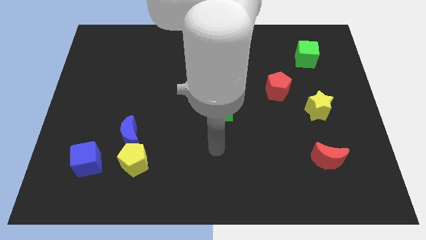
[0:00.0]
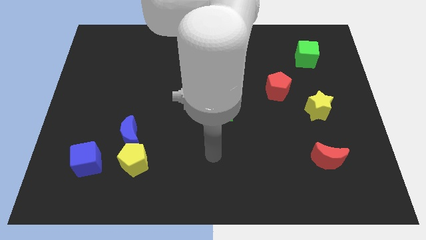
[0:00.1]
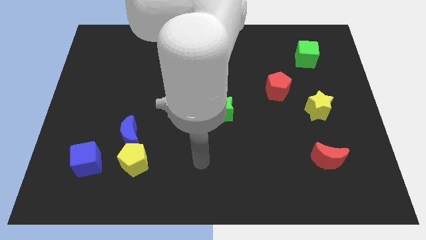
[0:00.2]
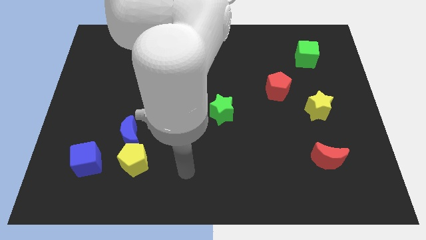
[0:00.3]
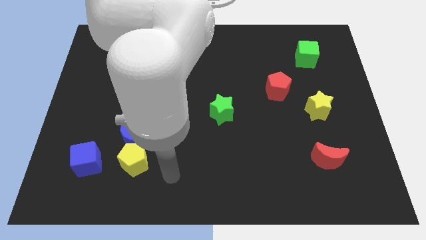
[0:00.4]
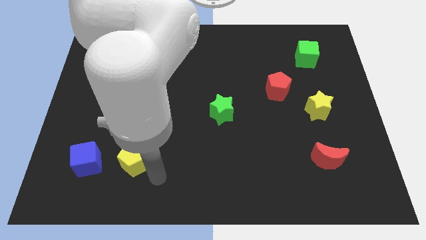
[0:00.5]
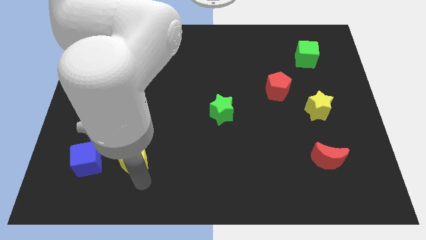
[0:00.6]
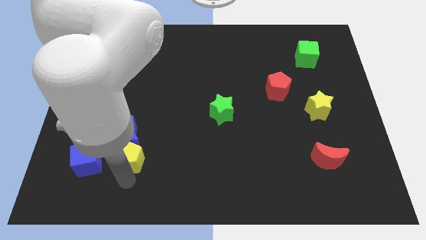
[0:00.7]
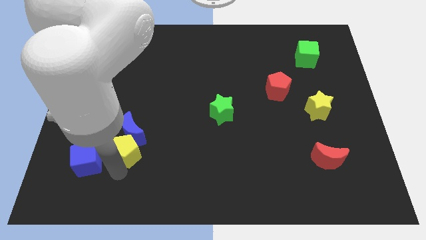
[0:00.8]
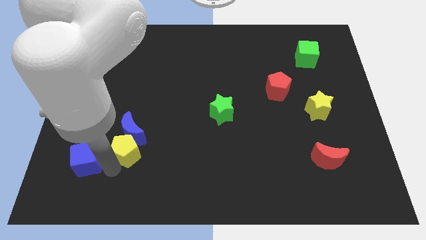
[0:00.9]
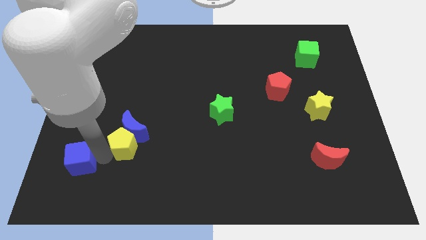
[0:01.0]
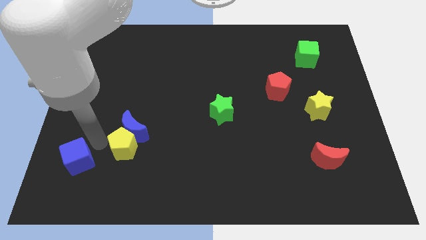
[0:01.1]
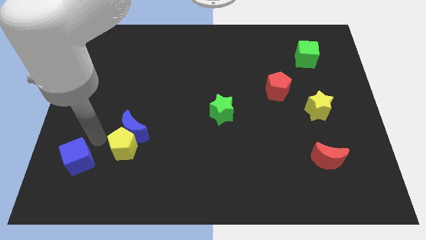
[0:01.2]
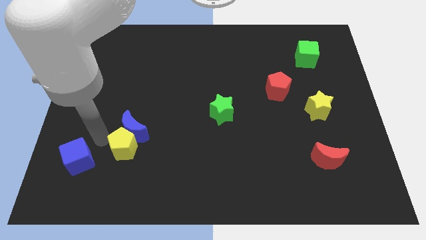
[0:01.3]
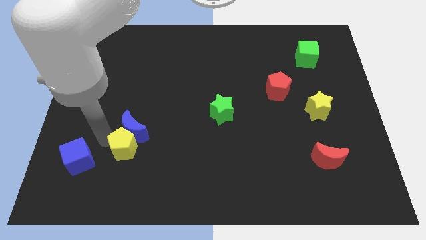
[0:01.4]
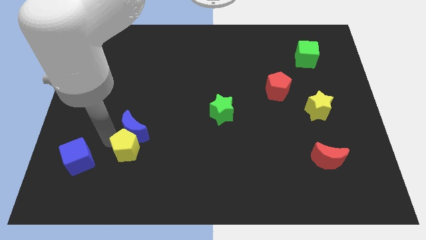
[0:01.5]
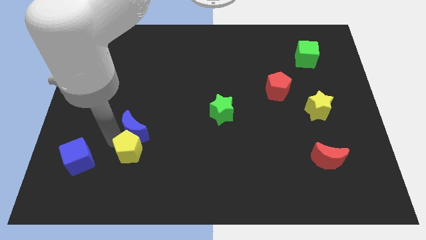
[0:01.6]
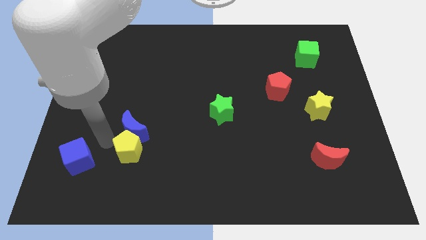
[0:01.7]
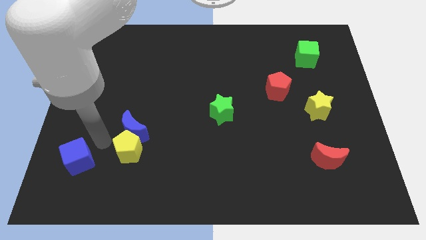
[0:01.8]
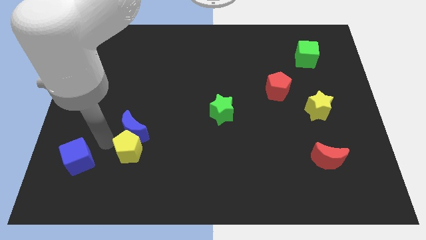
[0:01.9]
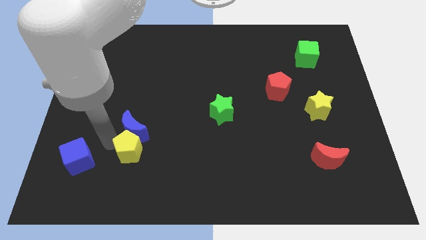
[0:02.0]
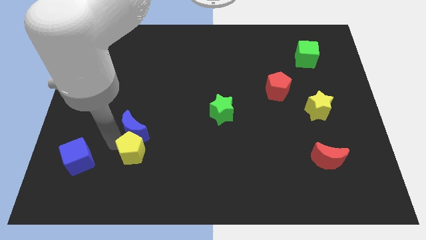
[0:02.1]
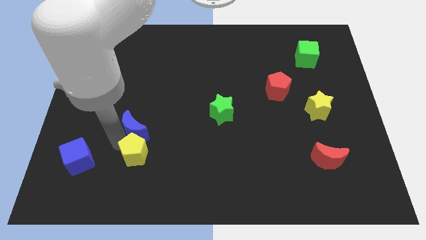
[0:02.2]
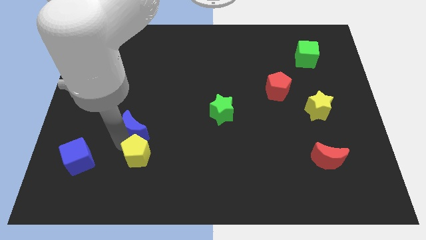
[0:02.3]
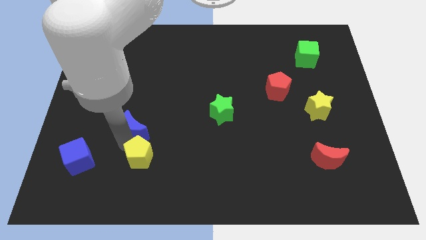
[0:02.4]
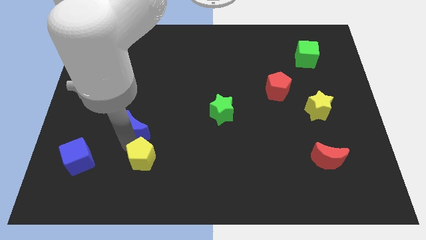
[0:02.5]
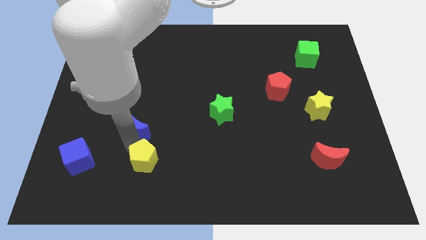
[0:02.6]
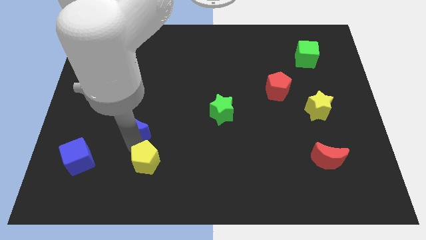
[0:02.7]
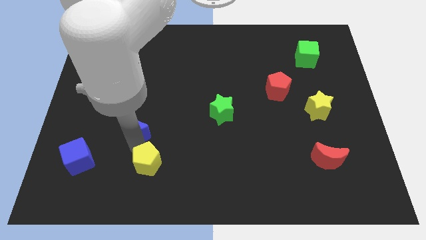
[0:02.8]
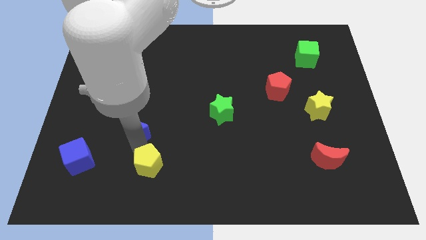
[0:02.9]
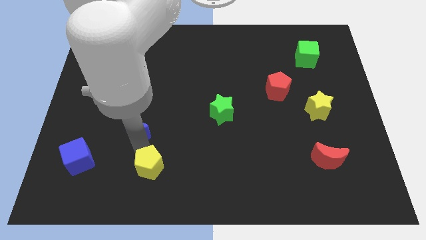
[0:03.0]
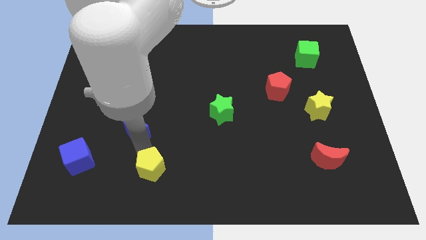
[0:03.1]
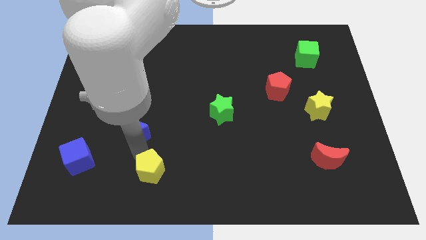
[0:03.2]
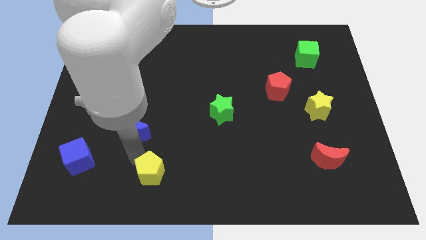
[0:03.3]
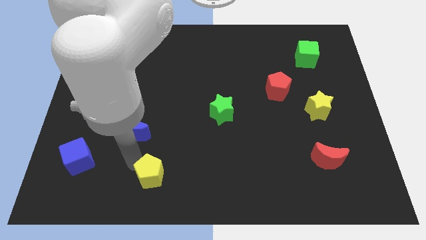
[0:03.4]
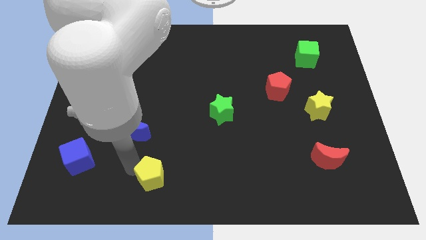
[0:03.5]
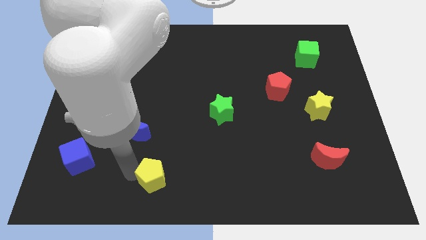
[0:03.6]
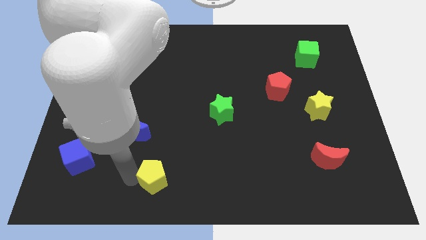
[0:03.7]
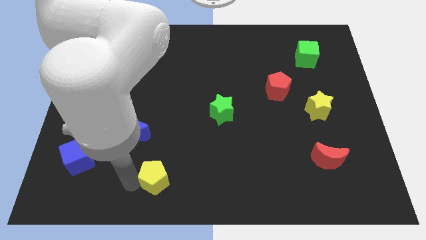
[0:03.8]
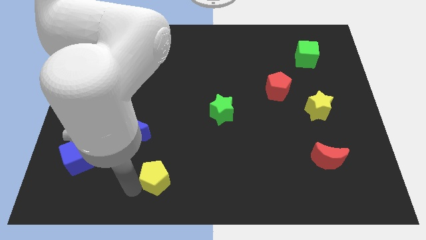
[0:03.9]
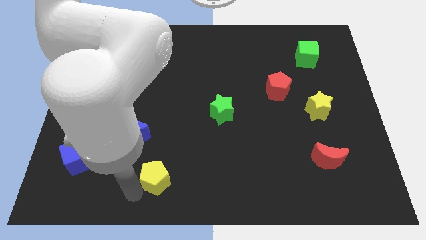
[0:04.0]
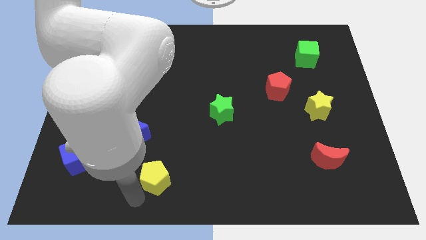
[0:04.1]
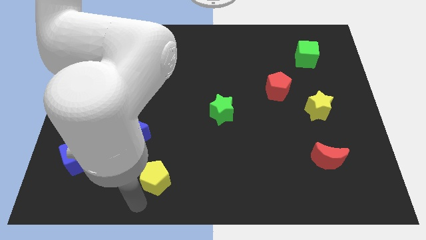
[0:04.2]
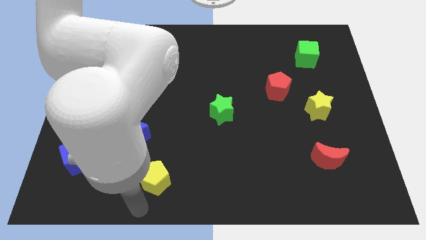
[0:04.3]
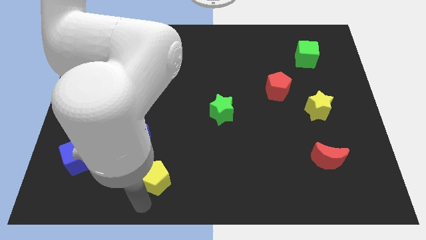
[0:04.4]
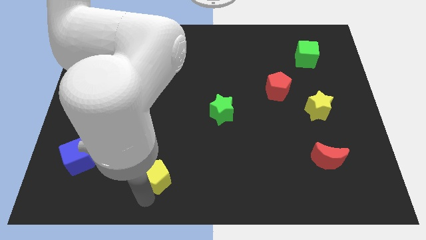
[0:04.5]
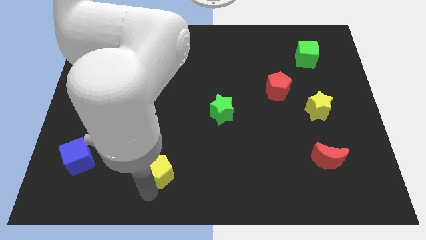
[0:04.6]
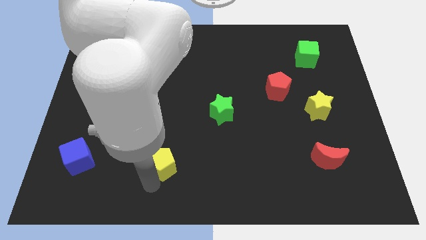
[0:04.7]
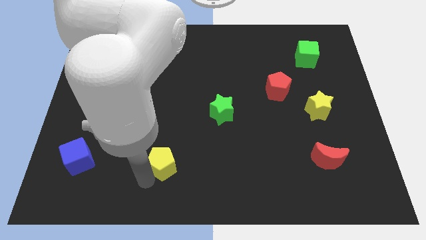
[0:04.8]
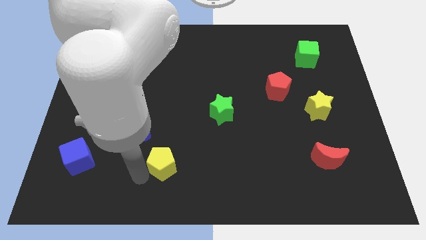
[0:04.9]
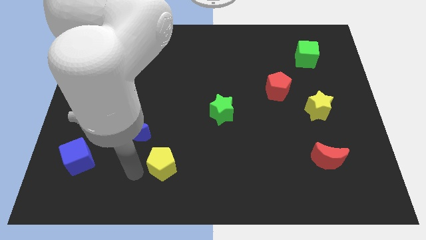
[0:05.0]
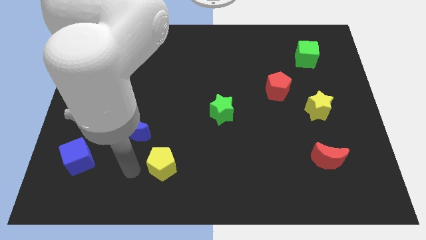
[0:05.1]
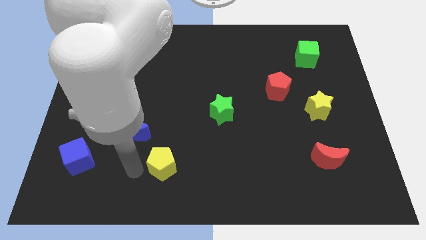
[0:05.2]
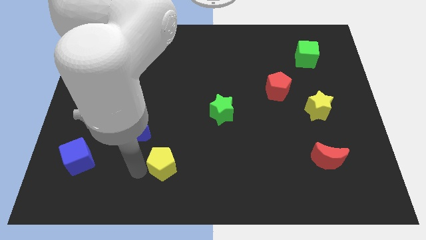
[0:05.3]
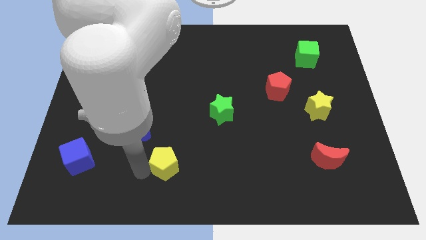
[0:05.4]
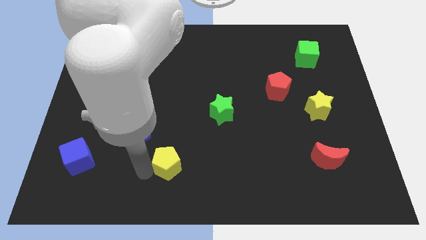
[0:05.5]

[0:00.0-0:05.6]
push the yellow pentagon to the right a little bit

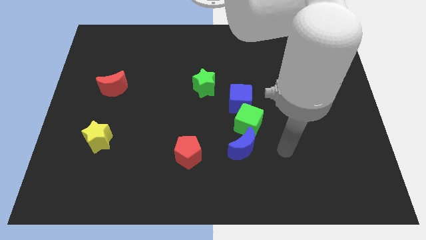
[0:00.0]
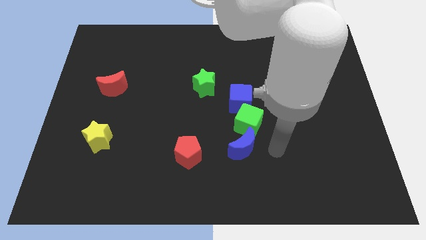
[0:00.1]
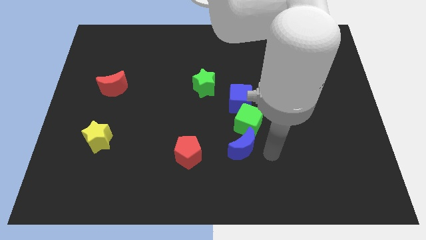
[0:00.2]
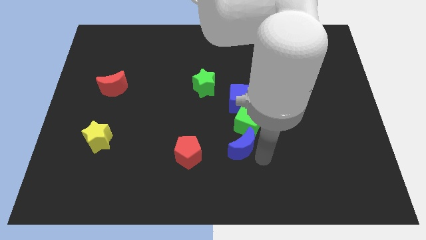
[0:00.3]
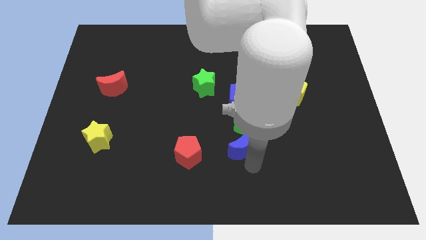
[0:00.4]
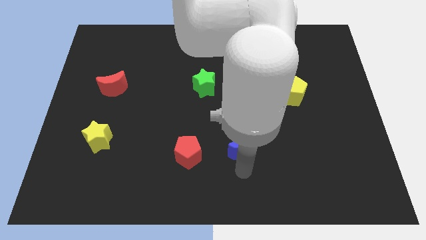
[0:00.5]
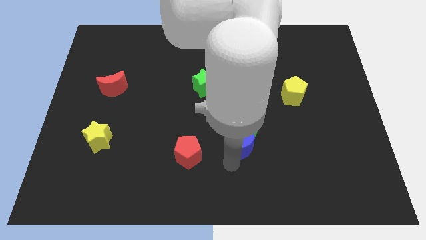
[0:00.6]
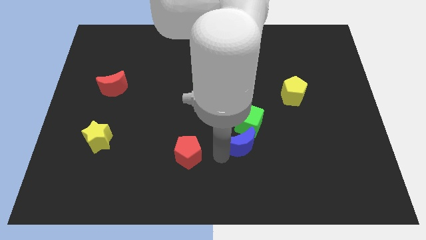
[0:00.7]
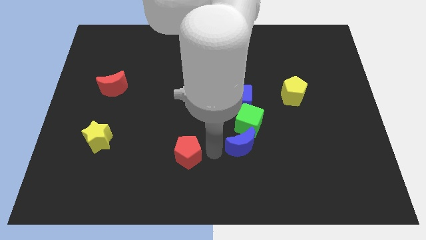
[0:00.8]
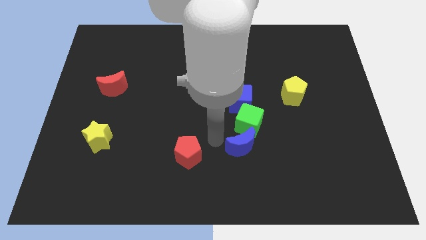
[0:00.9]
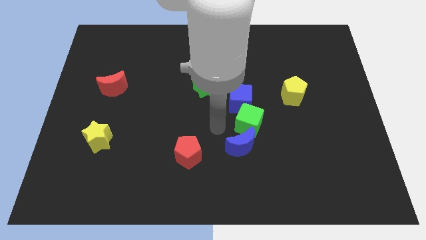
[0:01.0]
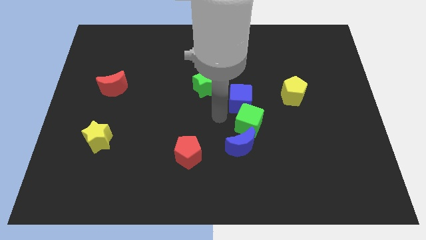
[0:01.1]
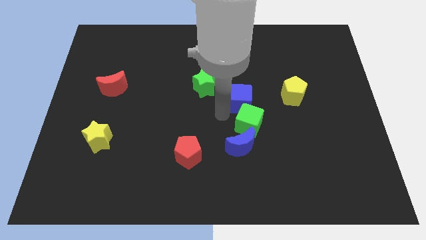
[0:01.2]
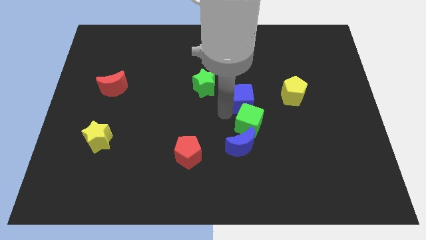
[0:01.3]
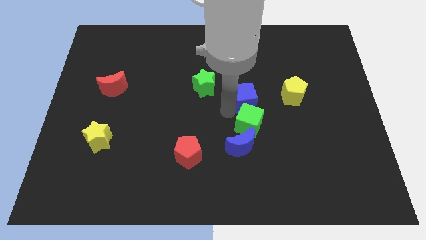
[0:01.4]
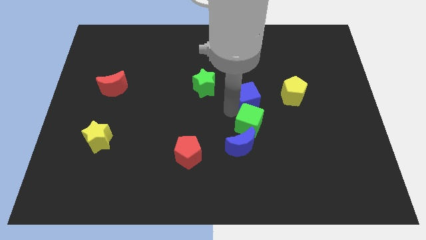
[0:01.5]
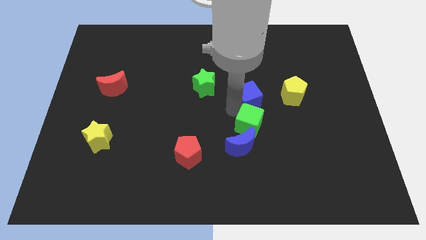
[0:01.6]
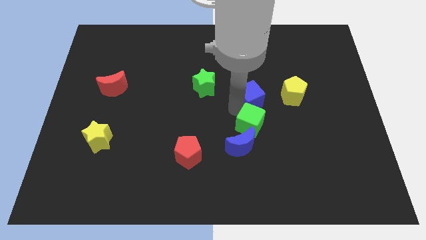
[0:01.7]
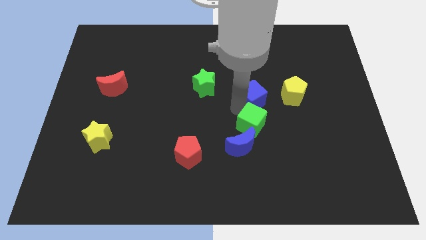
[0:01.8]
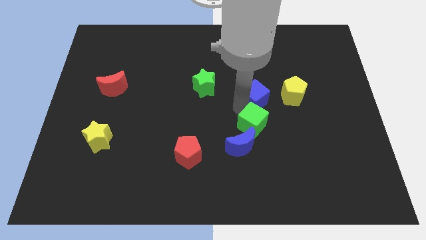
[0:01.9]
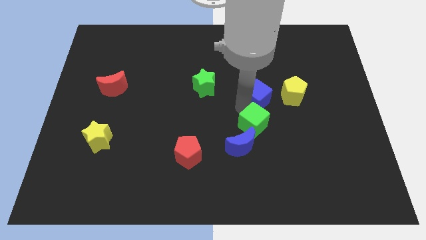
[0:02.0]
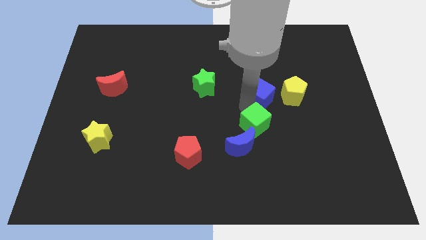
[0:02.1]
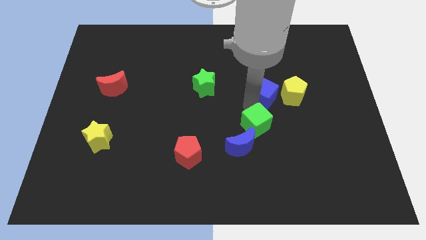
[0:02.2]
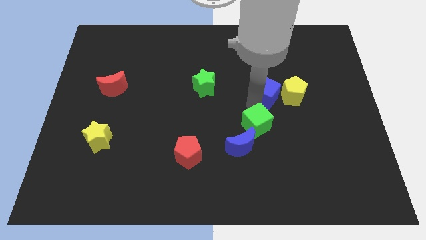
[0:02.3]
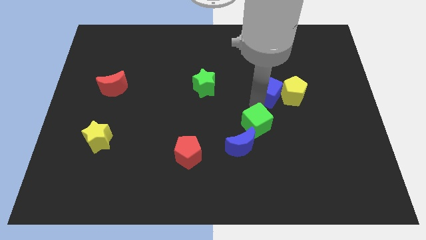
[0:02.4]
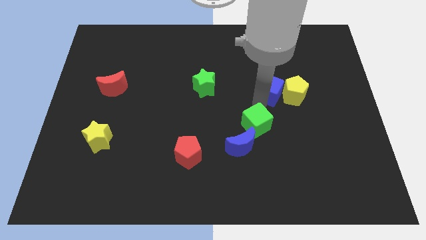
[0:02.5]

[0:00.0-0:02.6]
slightly push the blue cube up and right
